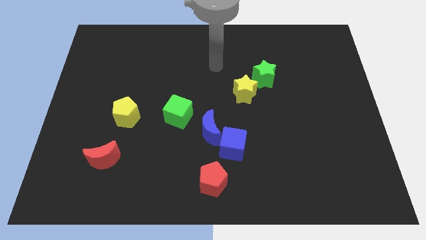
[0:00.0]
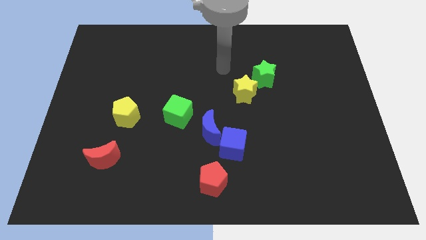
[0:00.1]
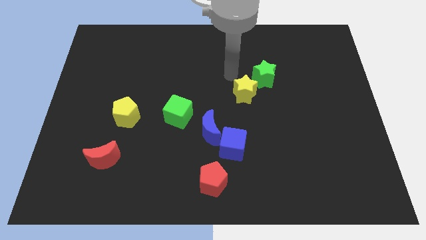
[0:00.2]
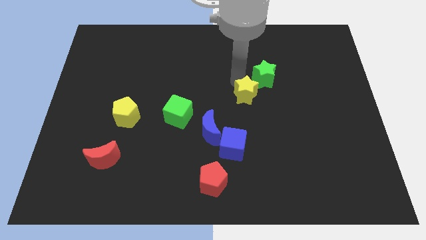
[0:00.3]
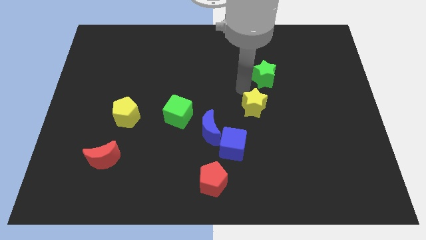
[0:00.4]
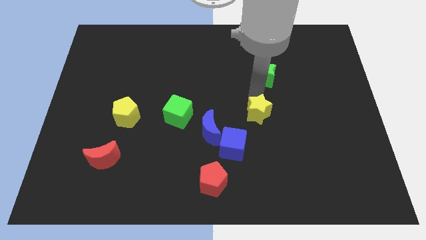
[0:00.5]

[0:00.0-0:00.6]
pull the green star apart from the yellow star

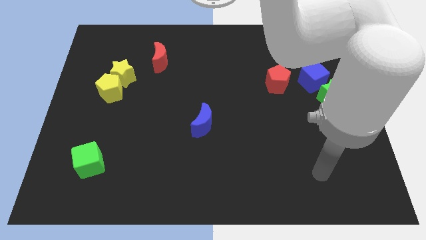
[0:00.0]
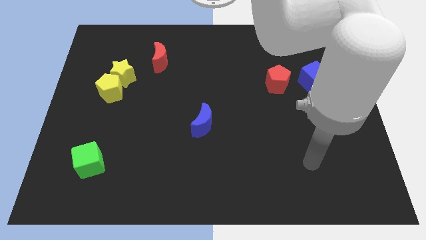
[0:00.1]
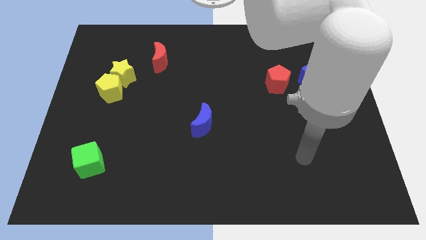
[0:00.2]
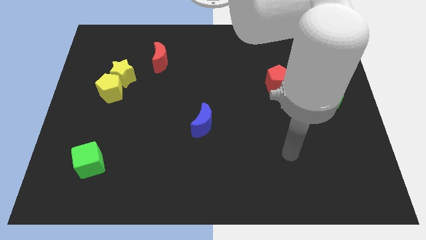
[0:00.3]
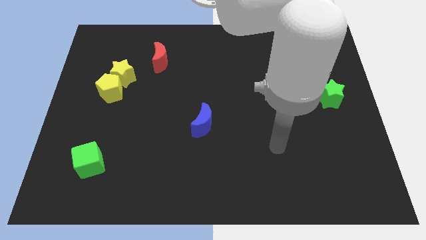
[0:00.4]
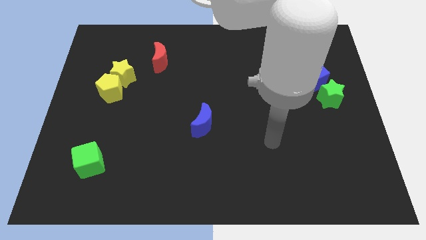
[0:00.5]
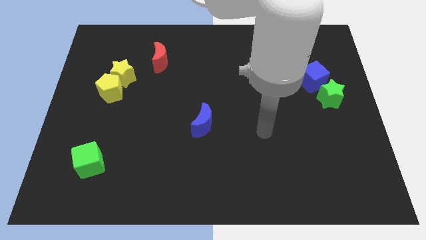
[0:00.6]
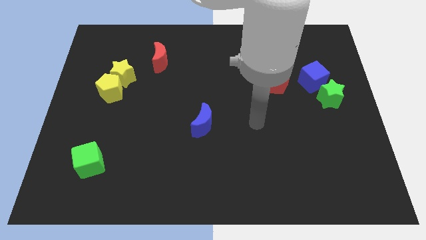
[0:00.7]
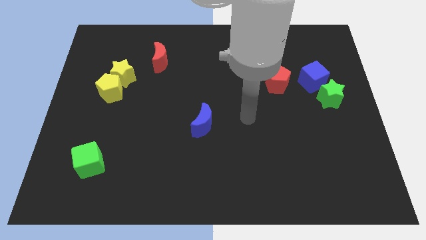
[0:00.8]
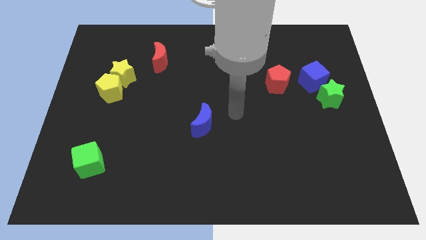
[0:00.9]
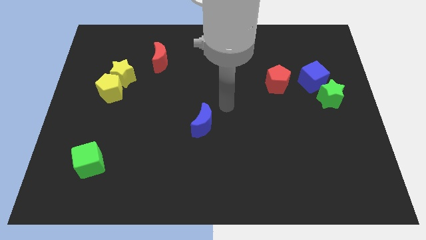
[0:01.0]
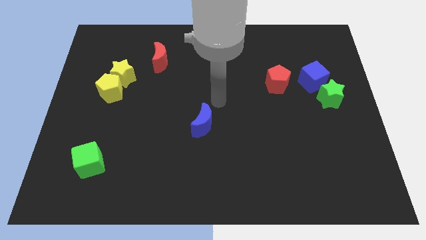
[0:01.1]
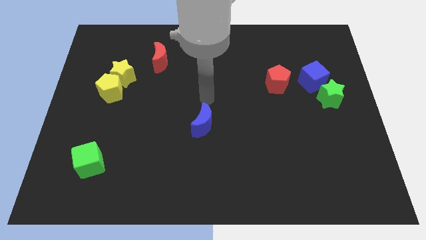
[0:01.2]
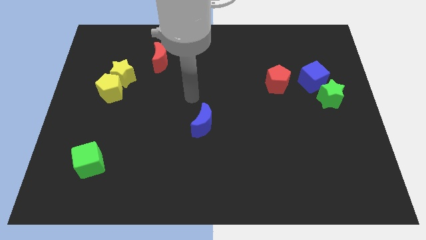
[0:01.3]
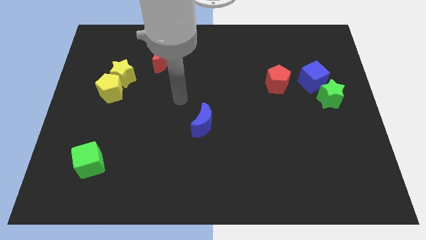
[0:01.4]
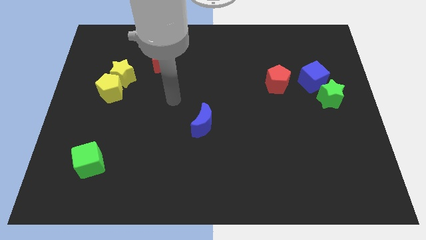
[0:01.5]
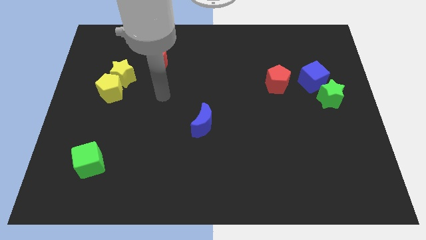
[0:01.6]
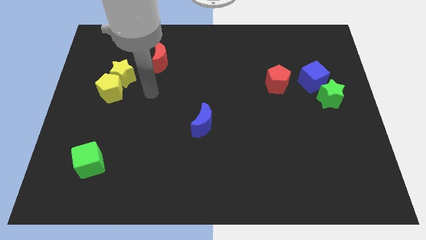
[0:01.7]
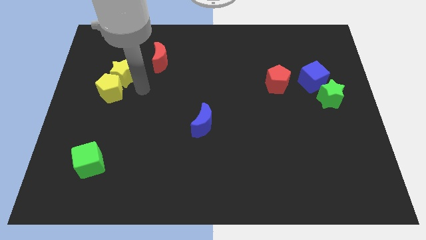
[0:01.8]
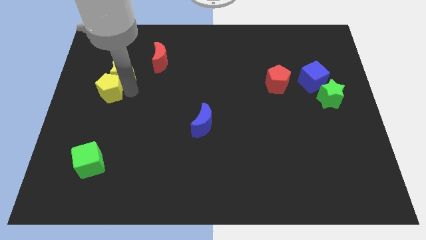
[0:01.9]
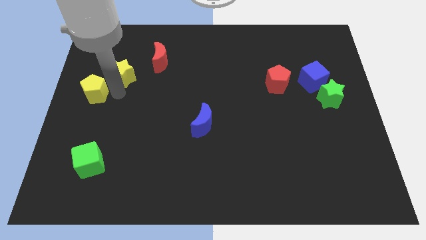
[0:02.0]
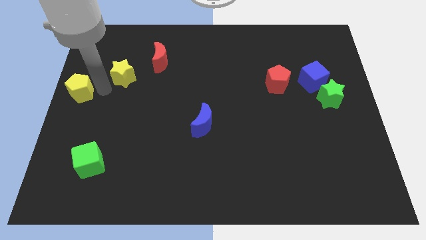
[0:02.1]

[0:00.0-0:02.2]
move the yellow star away from the yellow pentagon

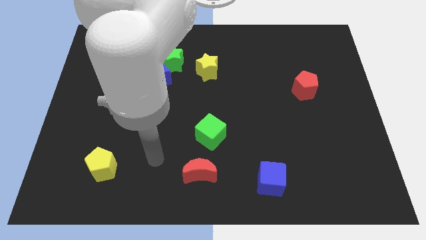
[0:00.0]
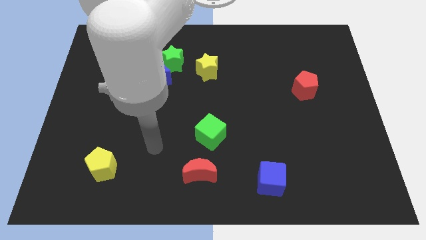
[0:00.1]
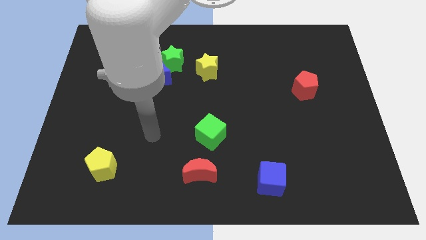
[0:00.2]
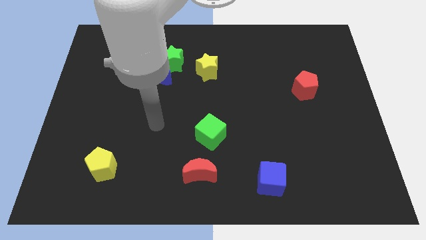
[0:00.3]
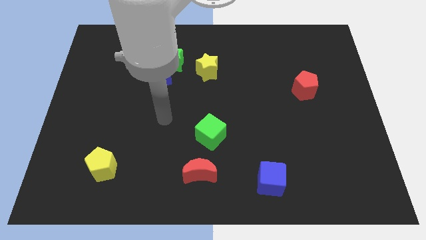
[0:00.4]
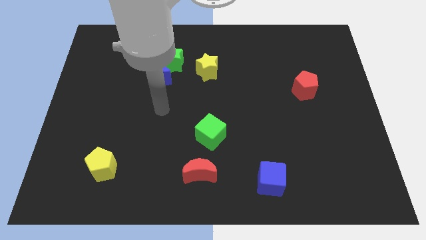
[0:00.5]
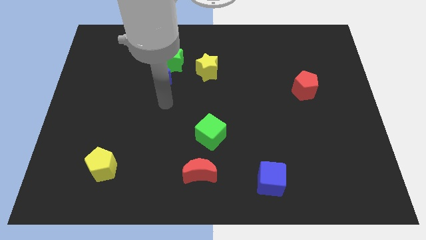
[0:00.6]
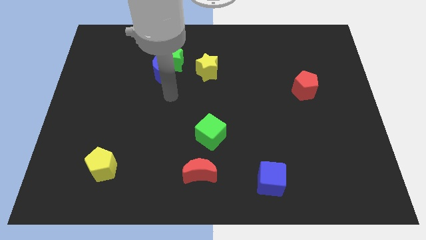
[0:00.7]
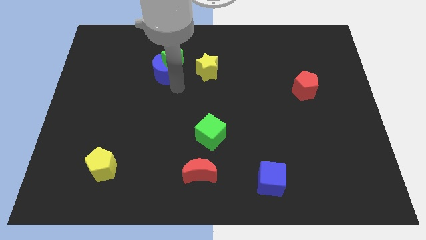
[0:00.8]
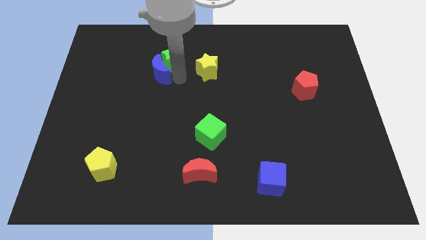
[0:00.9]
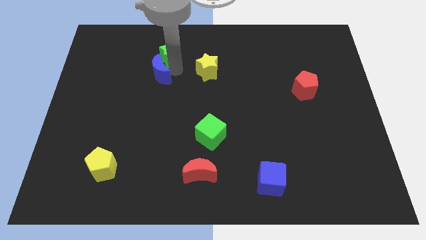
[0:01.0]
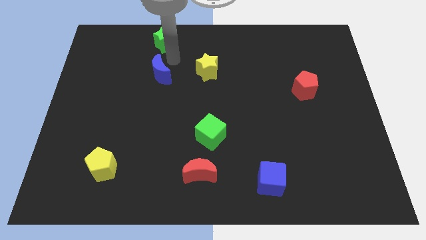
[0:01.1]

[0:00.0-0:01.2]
separate the blue moon from the green star

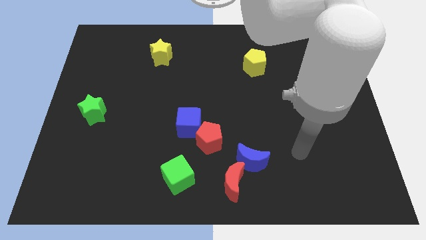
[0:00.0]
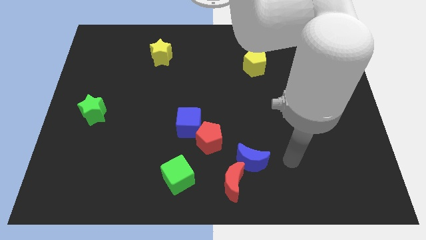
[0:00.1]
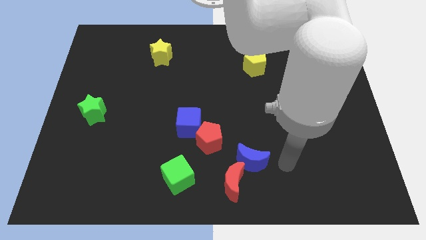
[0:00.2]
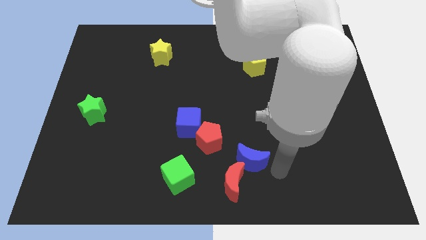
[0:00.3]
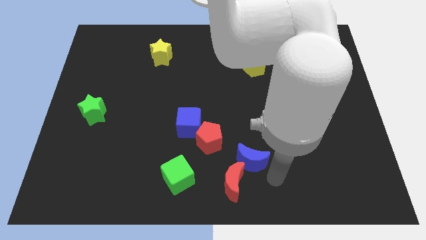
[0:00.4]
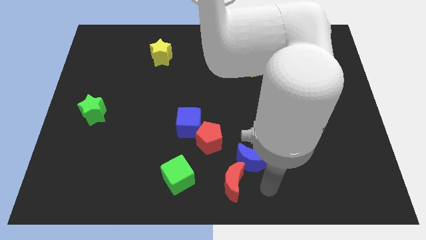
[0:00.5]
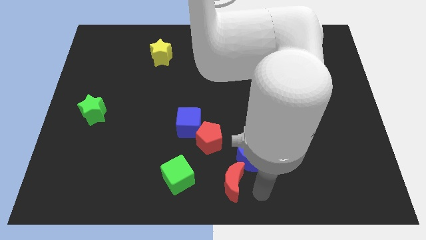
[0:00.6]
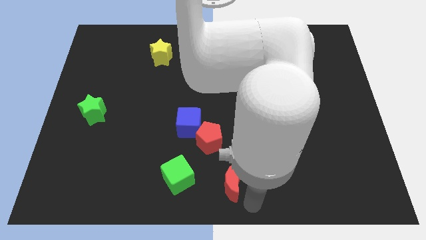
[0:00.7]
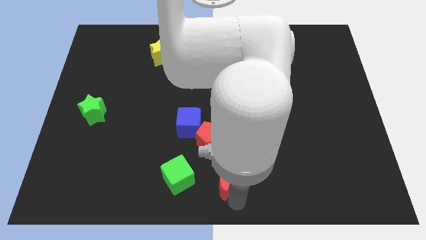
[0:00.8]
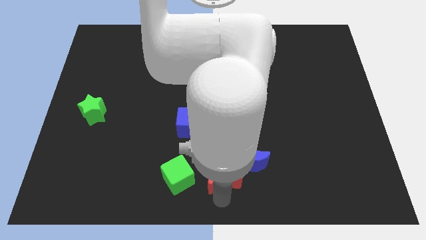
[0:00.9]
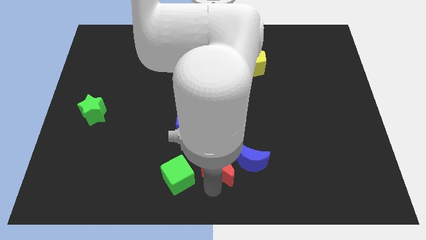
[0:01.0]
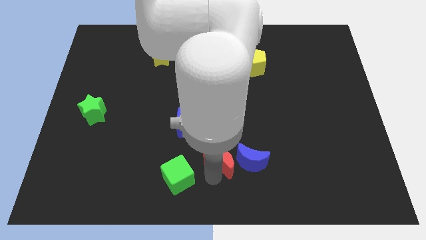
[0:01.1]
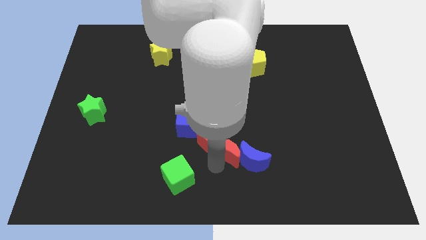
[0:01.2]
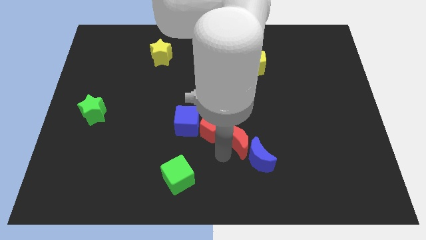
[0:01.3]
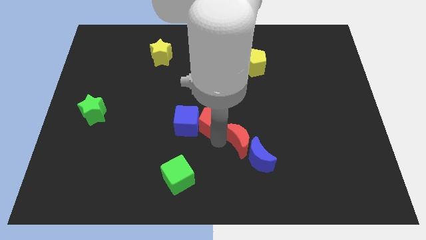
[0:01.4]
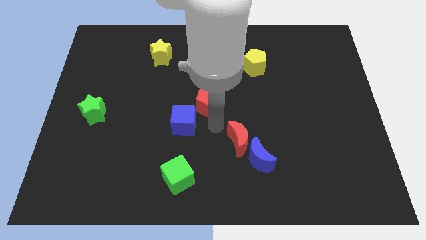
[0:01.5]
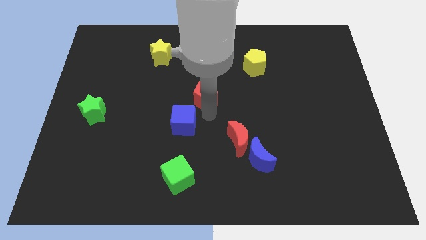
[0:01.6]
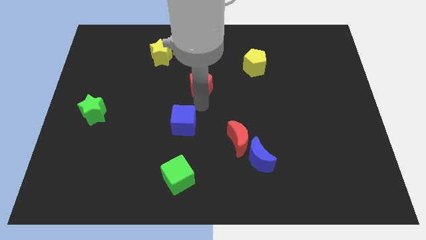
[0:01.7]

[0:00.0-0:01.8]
pull the blue cube apart from the red pentagon

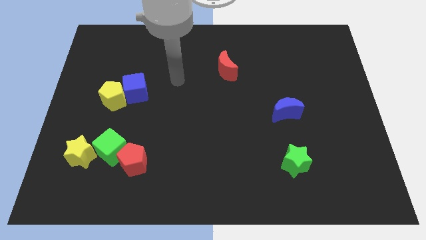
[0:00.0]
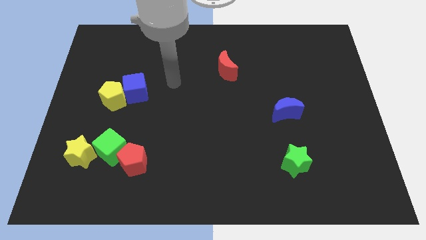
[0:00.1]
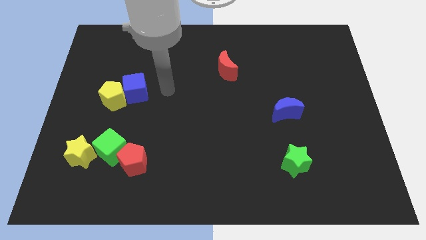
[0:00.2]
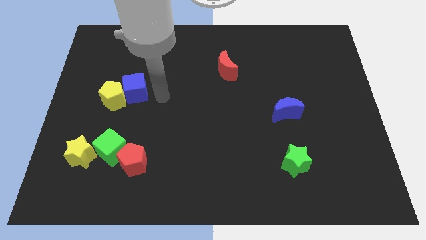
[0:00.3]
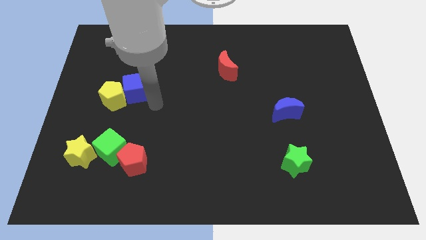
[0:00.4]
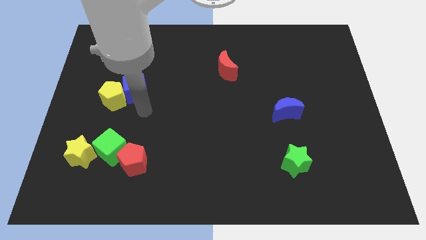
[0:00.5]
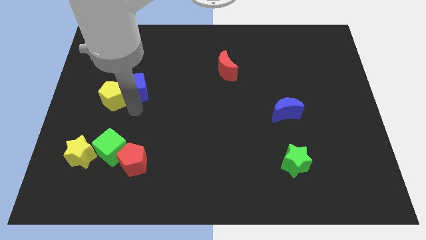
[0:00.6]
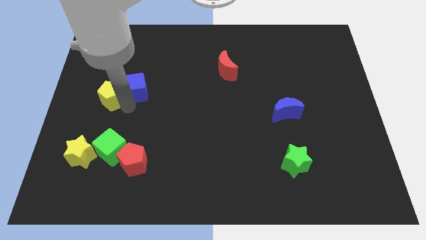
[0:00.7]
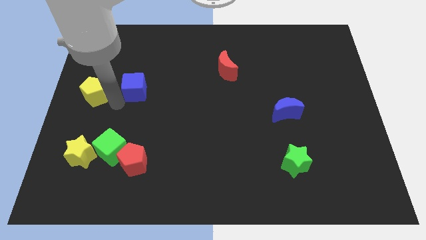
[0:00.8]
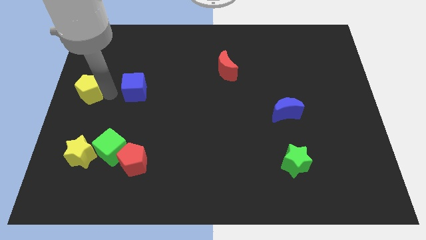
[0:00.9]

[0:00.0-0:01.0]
separate the blue cube from the yellow pentagon

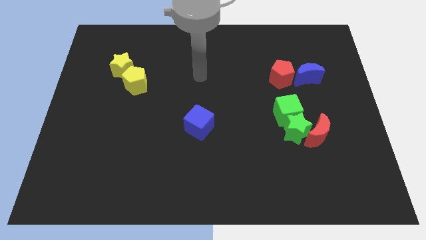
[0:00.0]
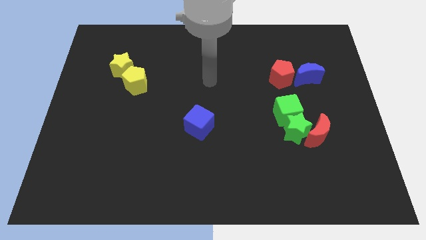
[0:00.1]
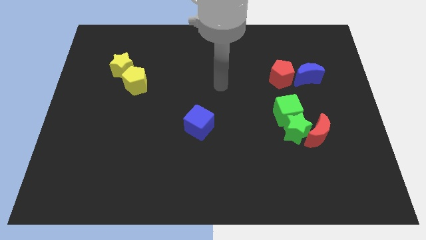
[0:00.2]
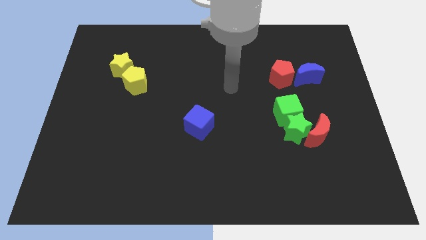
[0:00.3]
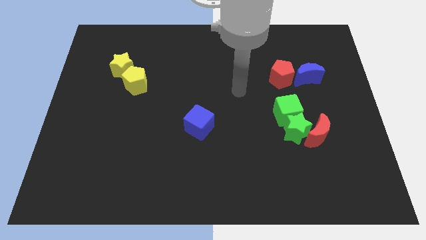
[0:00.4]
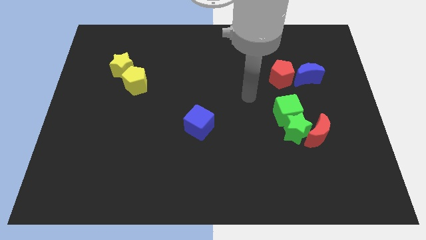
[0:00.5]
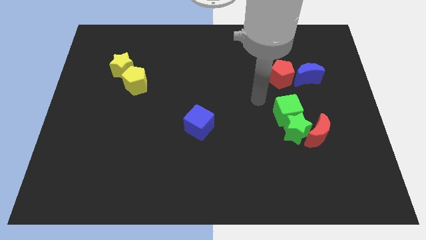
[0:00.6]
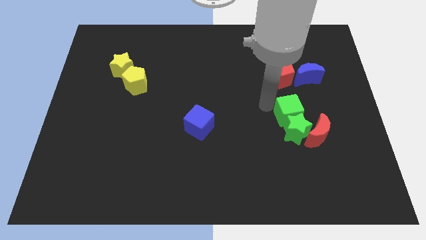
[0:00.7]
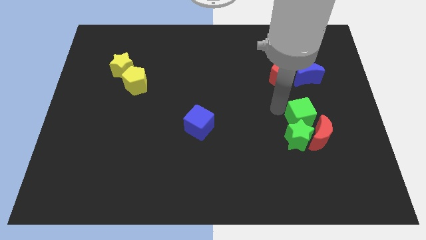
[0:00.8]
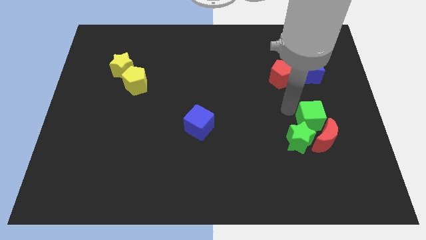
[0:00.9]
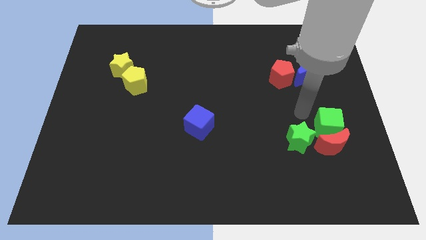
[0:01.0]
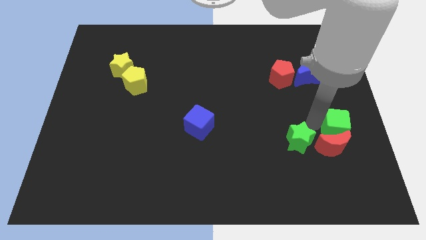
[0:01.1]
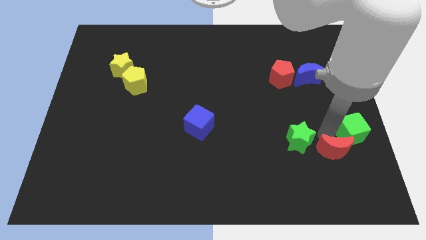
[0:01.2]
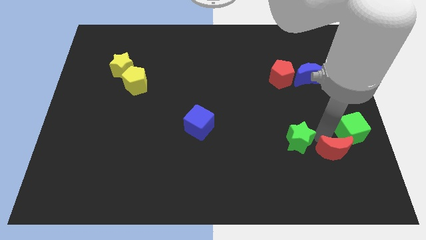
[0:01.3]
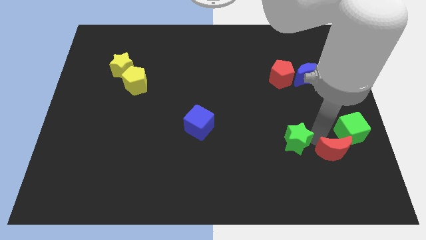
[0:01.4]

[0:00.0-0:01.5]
pull the green star apart from the red moon and green cube

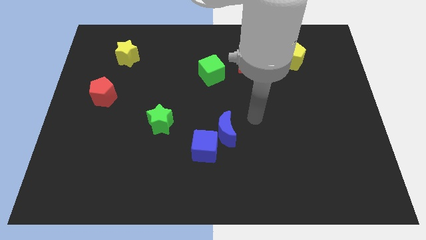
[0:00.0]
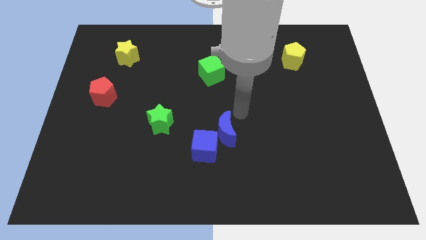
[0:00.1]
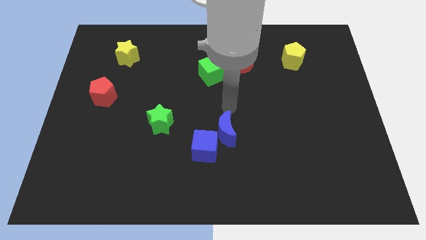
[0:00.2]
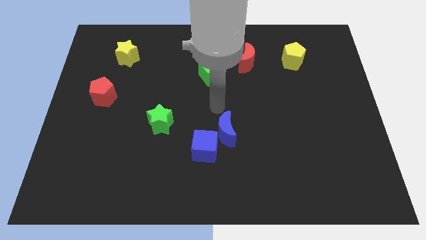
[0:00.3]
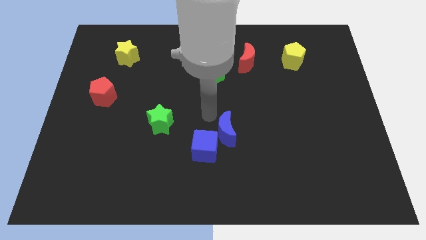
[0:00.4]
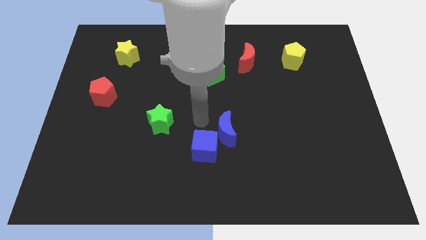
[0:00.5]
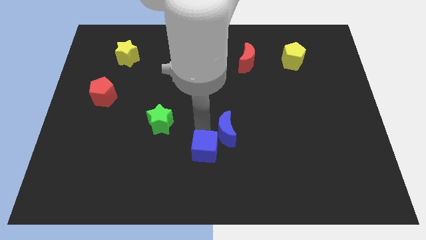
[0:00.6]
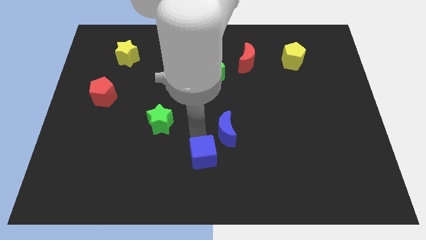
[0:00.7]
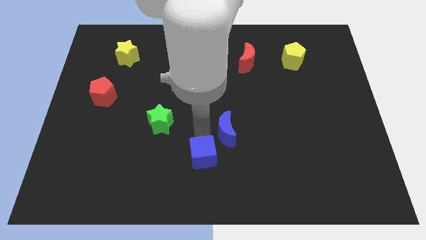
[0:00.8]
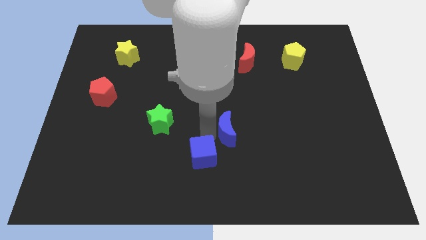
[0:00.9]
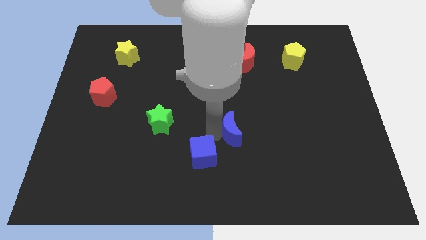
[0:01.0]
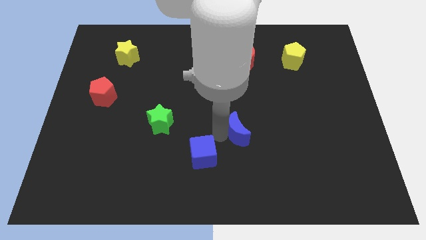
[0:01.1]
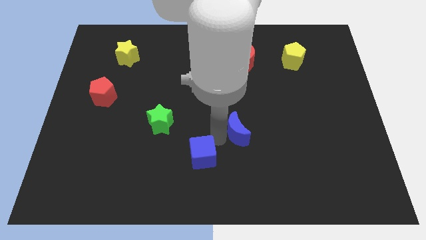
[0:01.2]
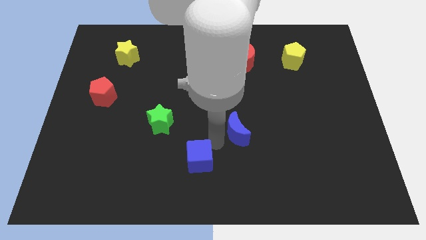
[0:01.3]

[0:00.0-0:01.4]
separate the blue moon from the blue cube
